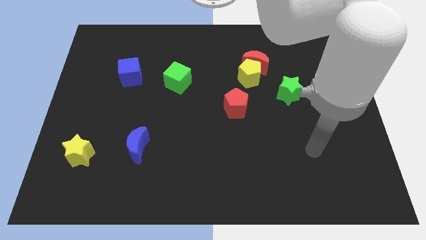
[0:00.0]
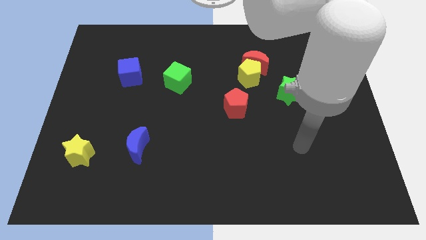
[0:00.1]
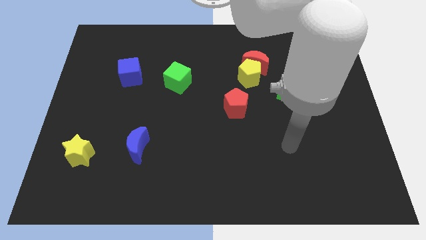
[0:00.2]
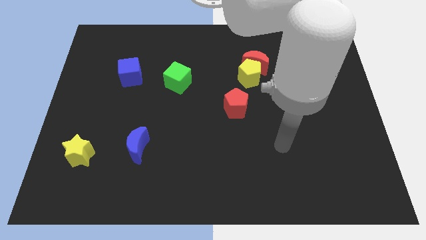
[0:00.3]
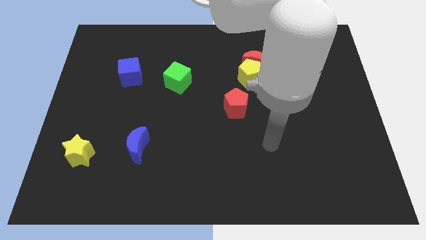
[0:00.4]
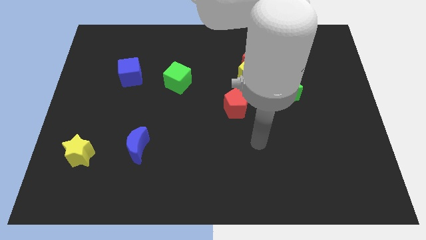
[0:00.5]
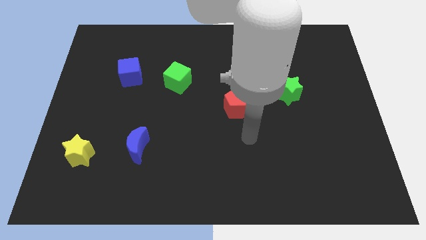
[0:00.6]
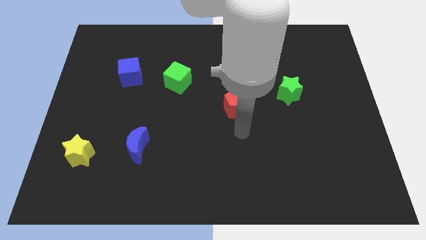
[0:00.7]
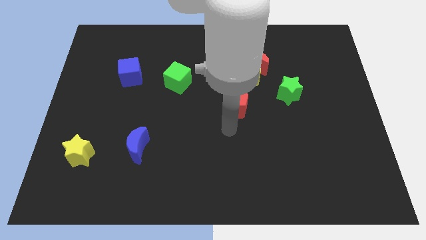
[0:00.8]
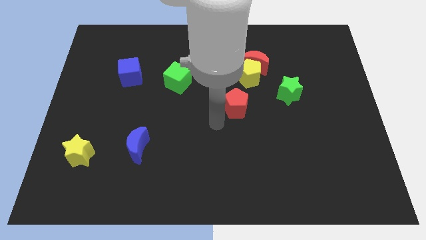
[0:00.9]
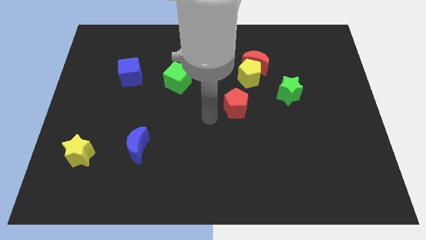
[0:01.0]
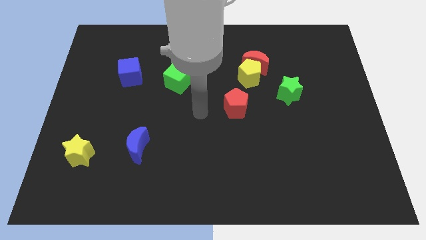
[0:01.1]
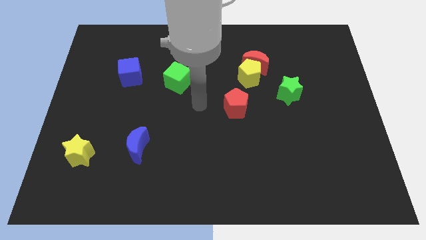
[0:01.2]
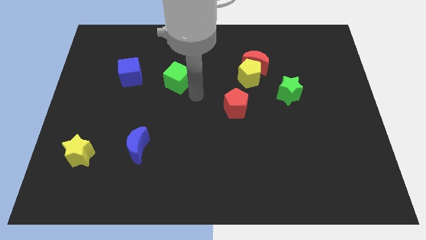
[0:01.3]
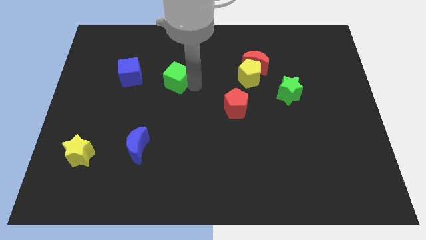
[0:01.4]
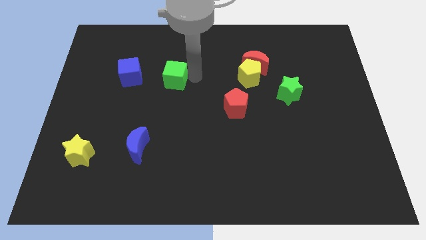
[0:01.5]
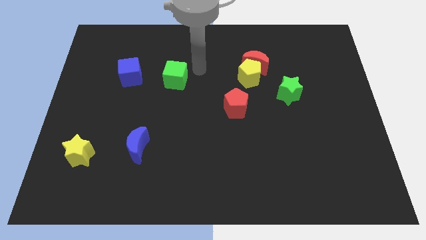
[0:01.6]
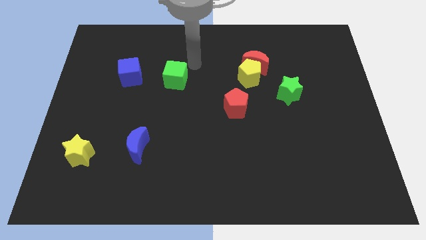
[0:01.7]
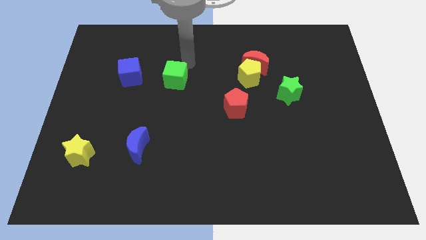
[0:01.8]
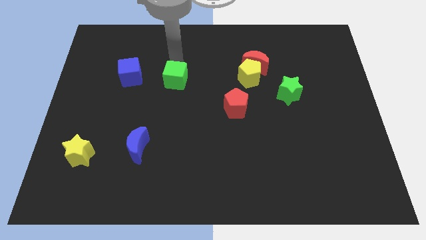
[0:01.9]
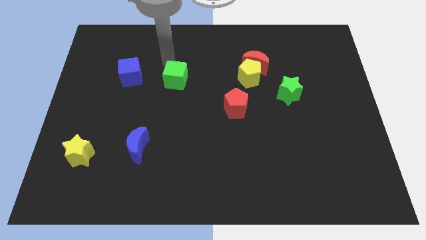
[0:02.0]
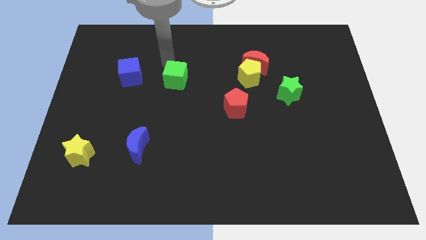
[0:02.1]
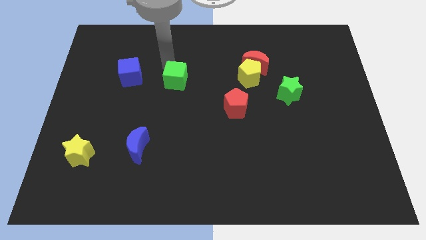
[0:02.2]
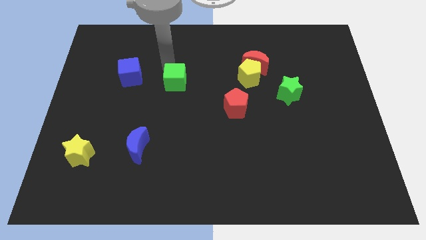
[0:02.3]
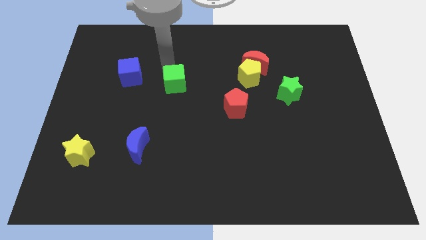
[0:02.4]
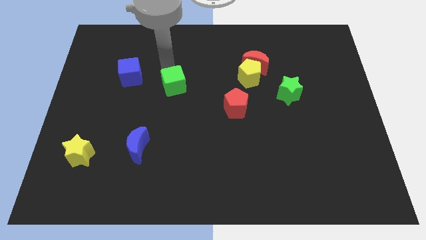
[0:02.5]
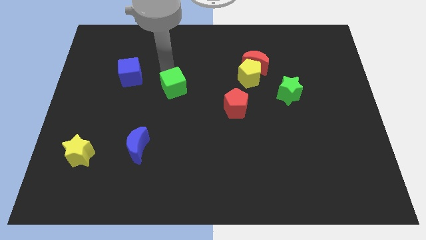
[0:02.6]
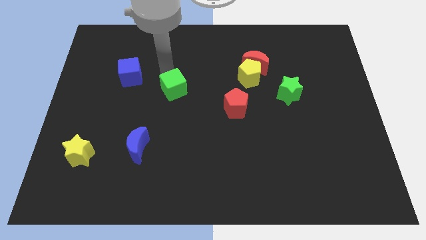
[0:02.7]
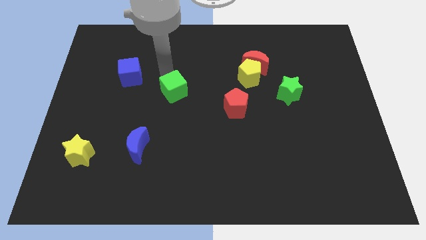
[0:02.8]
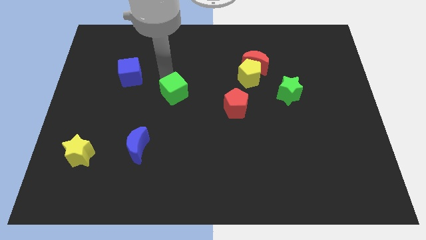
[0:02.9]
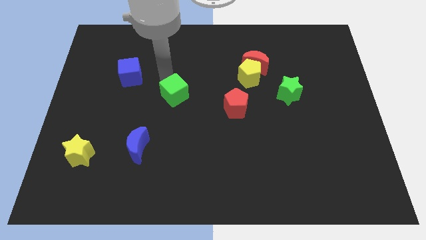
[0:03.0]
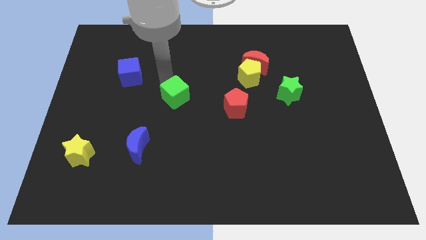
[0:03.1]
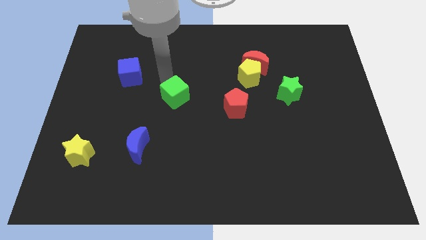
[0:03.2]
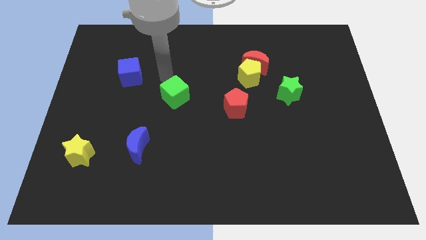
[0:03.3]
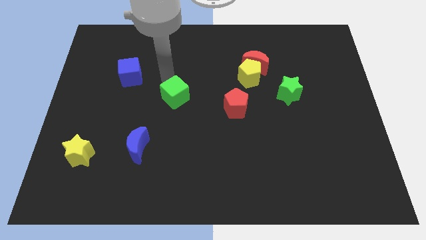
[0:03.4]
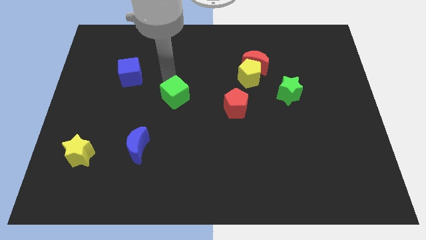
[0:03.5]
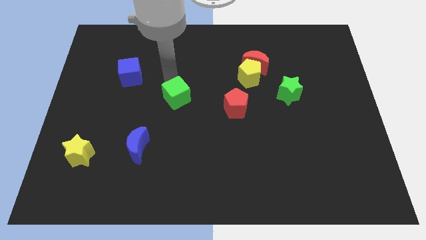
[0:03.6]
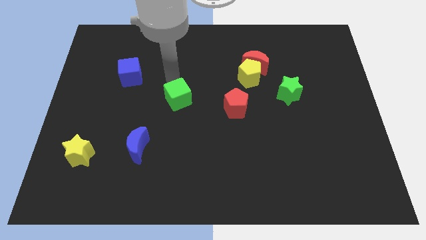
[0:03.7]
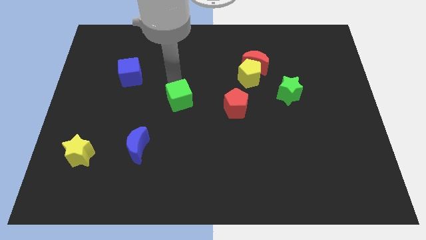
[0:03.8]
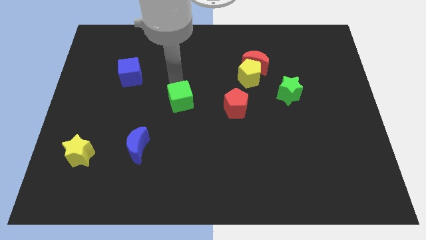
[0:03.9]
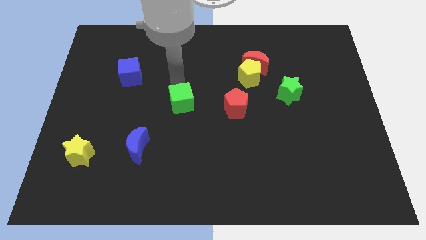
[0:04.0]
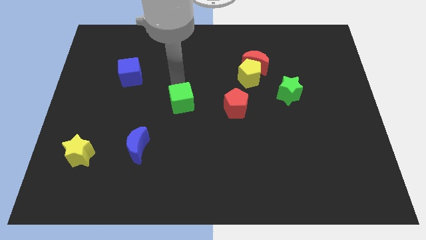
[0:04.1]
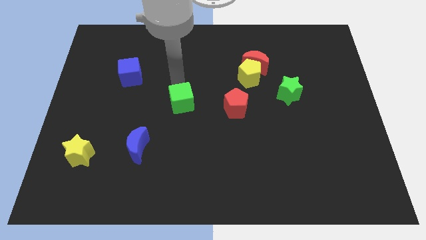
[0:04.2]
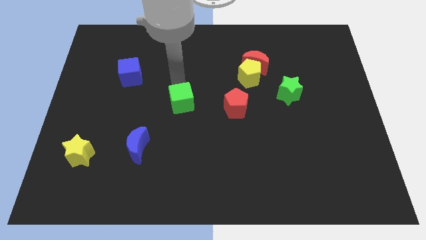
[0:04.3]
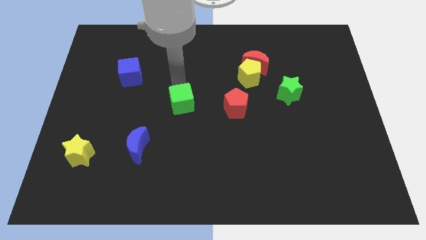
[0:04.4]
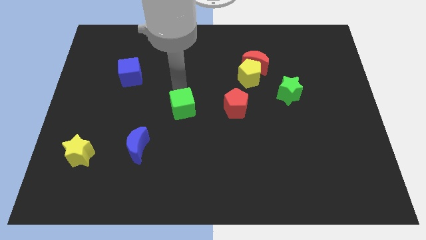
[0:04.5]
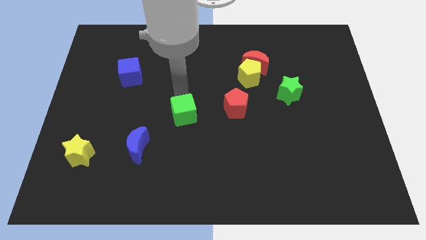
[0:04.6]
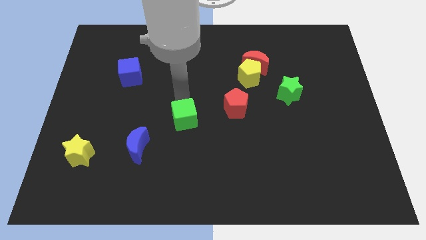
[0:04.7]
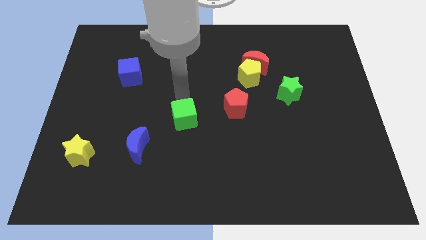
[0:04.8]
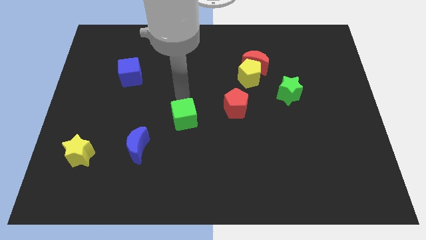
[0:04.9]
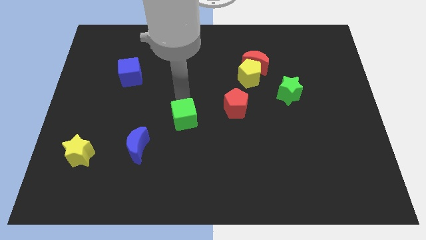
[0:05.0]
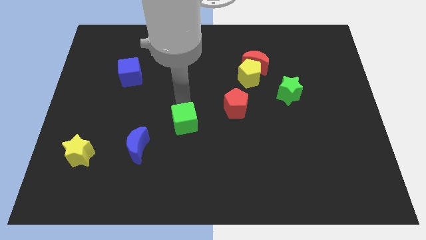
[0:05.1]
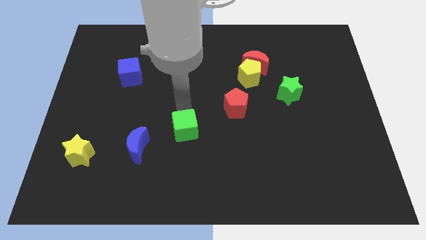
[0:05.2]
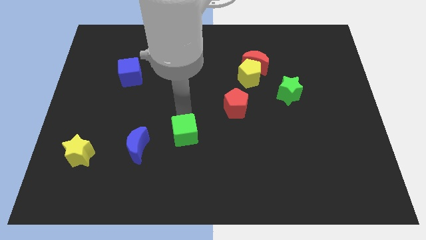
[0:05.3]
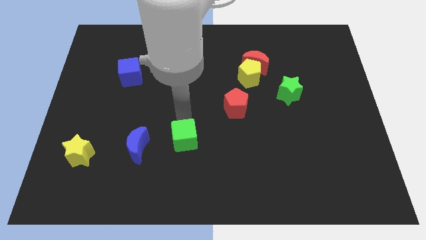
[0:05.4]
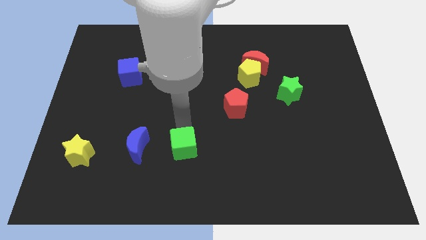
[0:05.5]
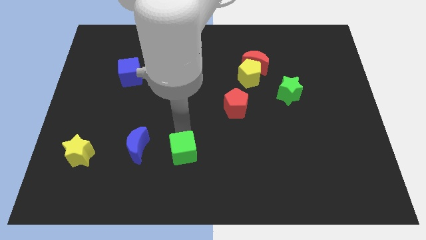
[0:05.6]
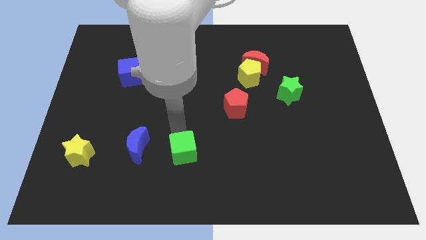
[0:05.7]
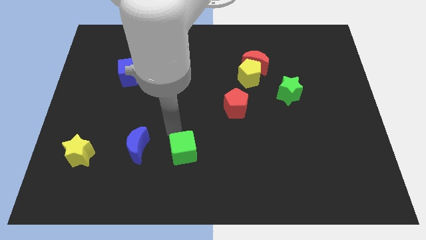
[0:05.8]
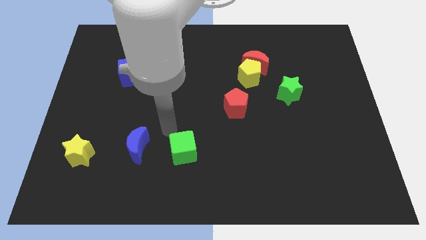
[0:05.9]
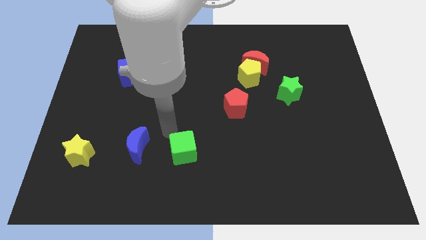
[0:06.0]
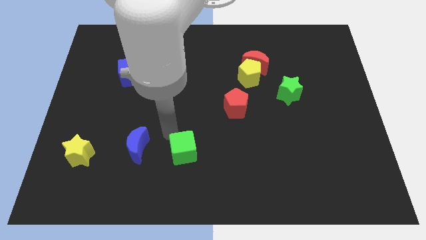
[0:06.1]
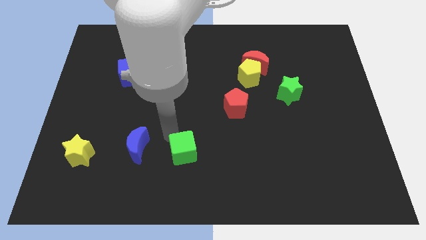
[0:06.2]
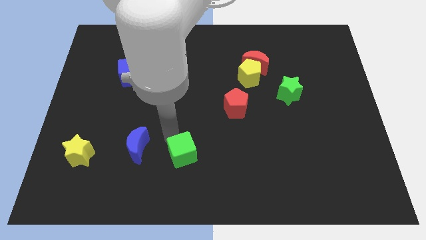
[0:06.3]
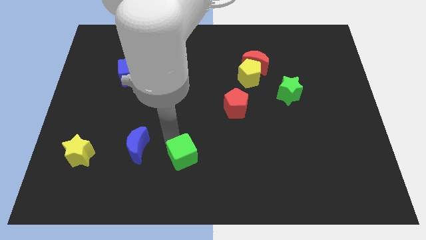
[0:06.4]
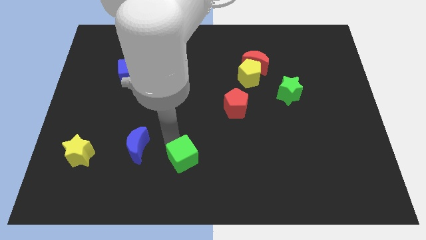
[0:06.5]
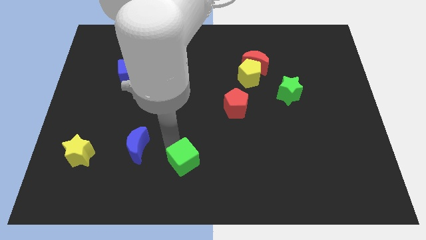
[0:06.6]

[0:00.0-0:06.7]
put the green cube to the bottom side

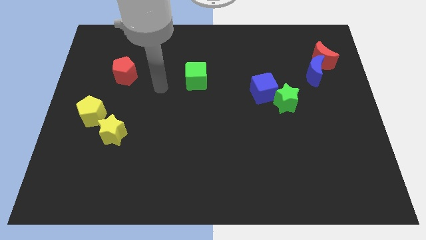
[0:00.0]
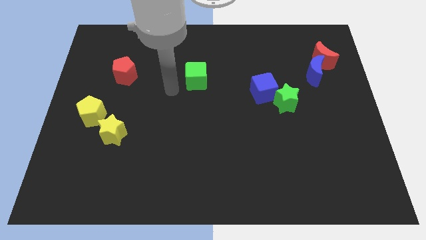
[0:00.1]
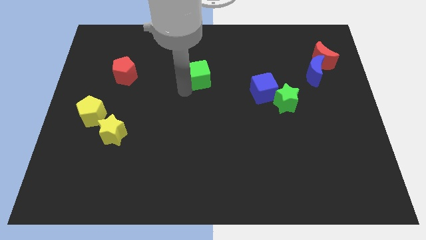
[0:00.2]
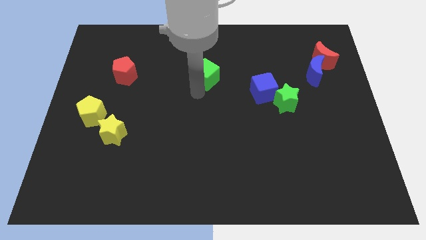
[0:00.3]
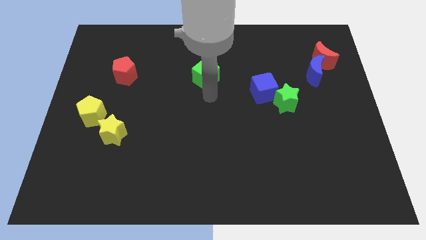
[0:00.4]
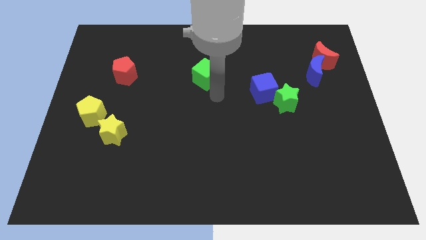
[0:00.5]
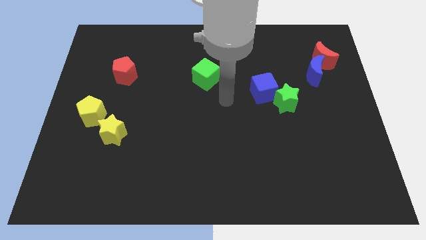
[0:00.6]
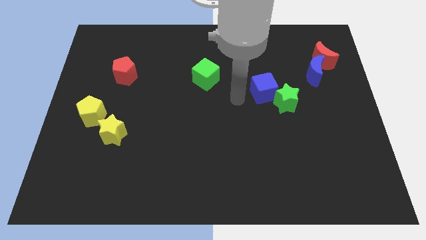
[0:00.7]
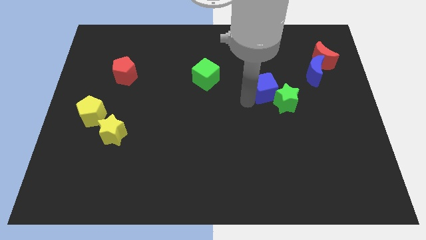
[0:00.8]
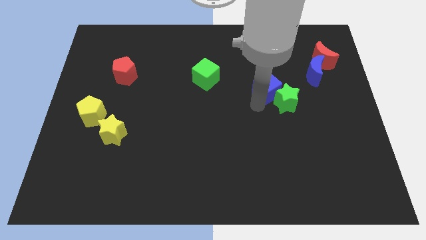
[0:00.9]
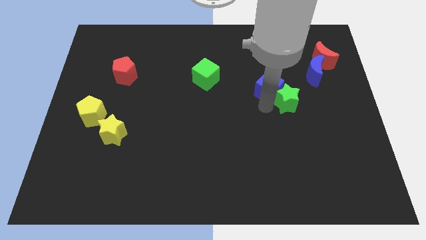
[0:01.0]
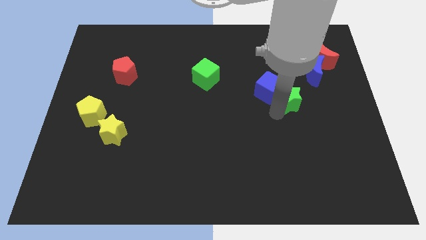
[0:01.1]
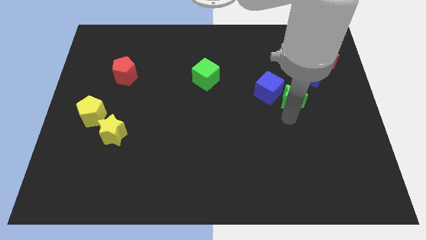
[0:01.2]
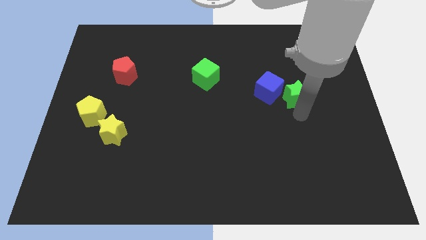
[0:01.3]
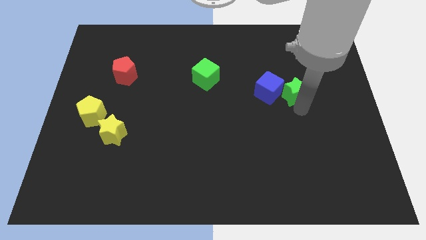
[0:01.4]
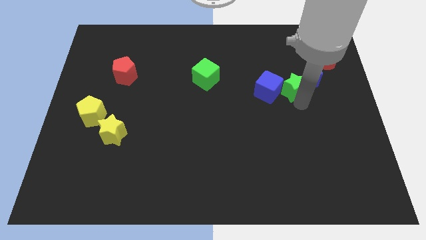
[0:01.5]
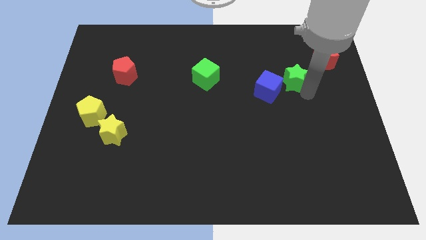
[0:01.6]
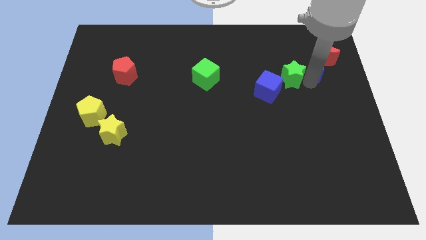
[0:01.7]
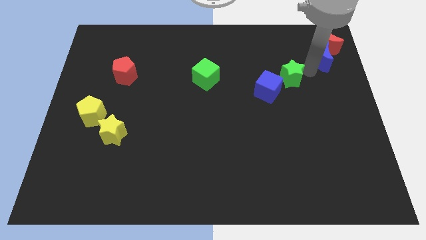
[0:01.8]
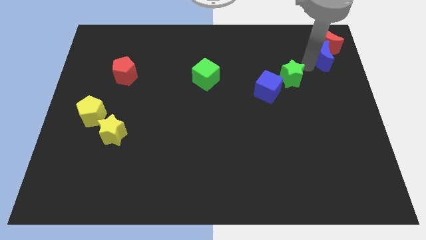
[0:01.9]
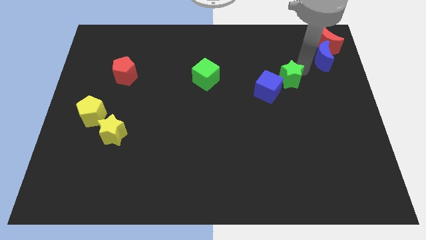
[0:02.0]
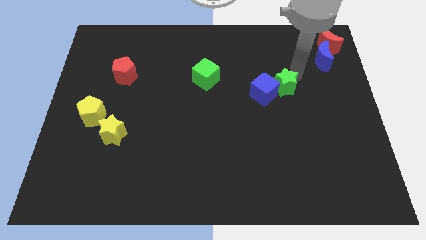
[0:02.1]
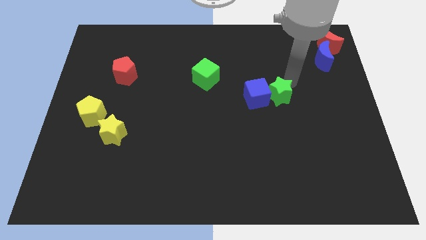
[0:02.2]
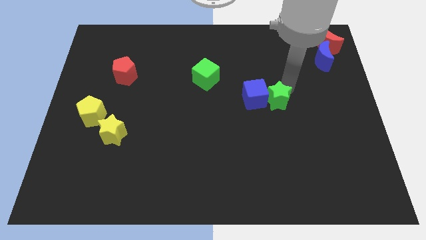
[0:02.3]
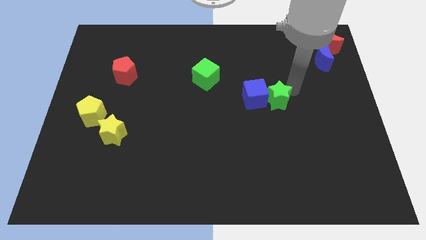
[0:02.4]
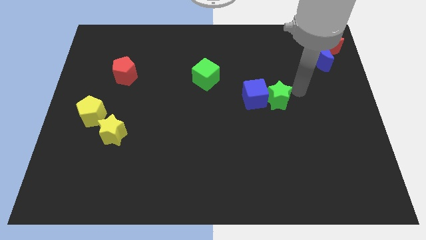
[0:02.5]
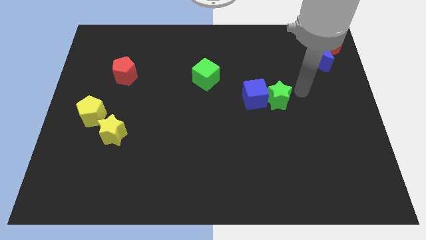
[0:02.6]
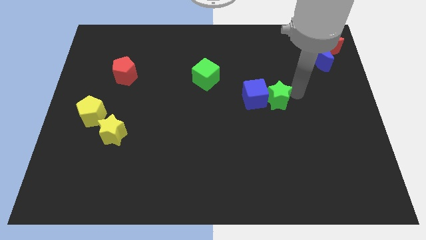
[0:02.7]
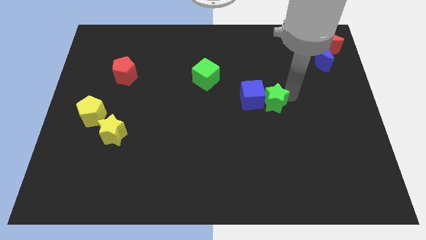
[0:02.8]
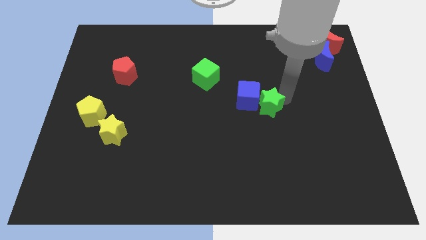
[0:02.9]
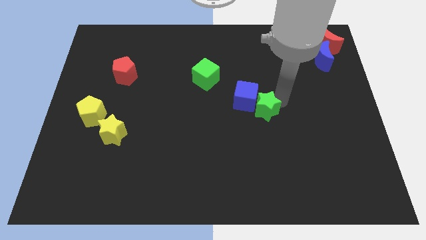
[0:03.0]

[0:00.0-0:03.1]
put the green star to the center of the board
